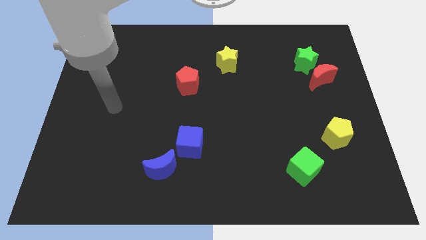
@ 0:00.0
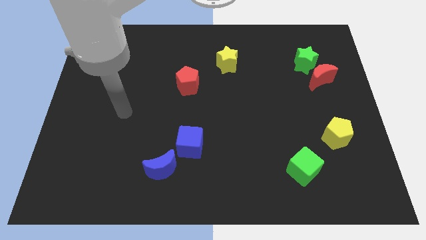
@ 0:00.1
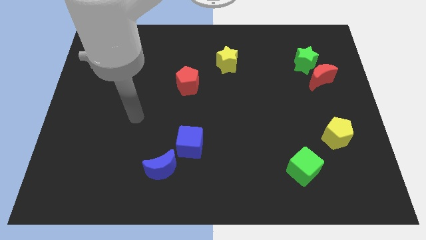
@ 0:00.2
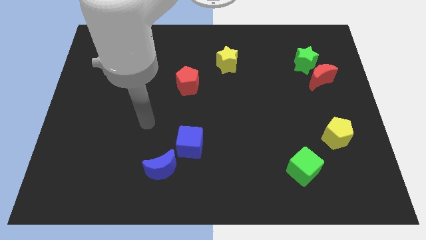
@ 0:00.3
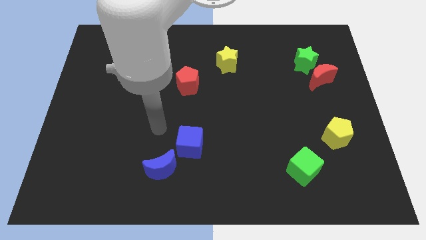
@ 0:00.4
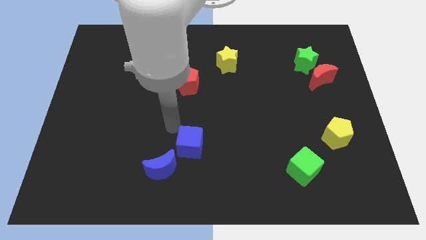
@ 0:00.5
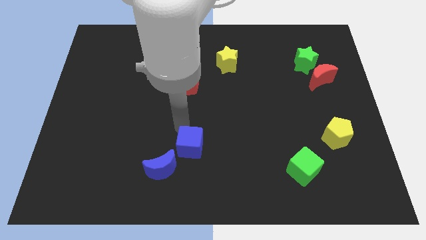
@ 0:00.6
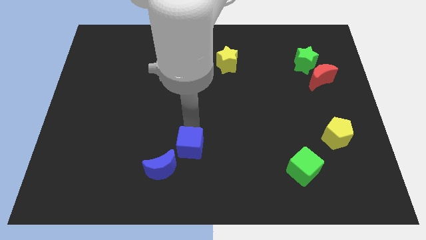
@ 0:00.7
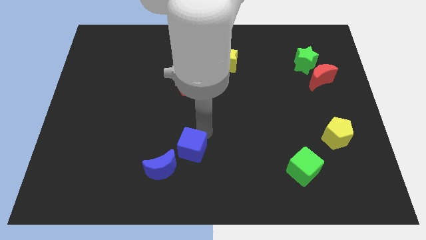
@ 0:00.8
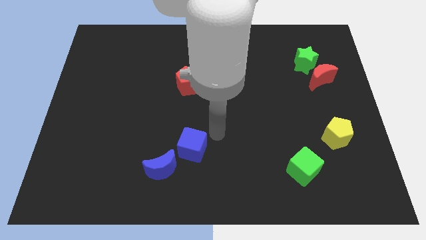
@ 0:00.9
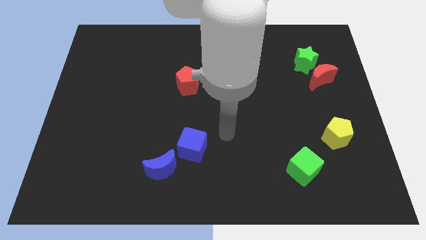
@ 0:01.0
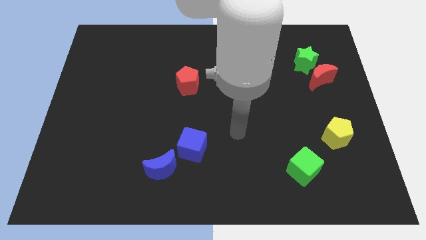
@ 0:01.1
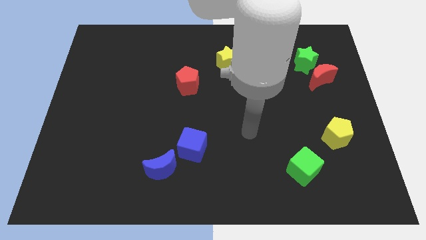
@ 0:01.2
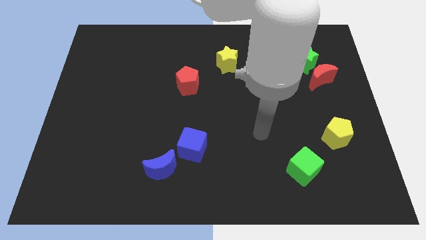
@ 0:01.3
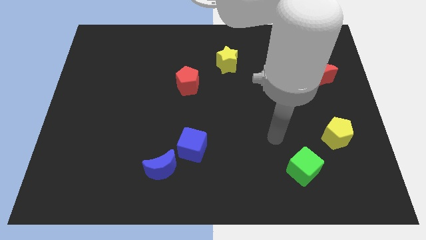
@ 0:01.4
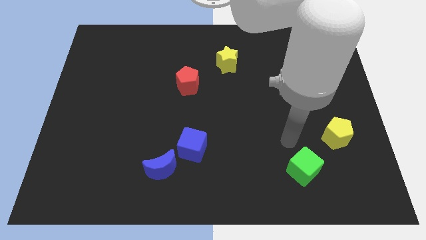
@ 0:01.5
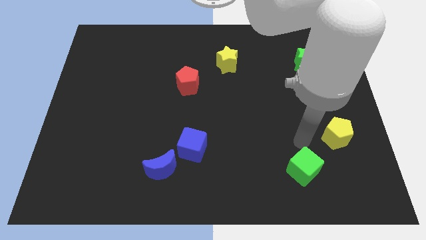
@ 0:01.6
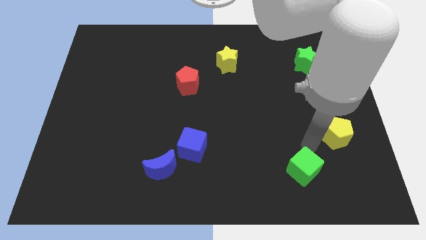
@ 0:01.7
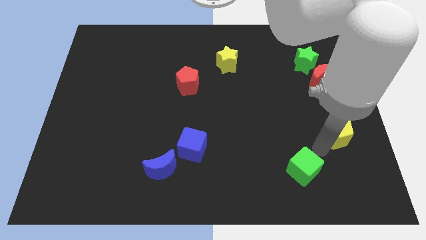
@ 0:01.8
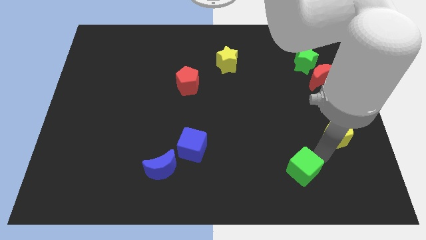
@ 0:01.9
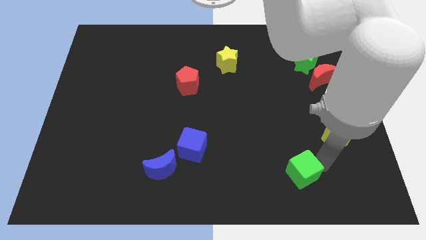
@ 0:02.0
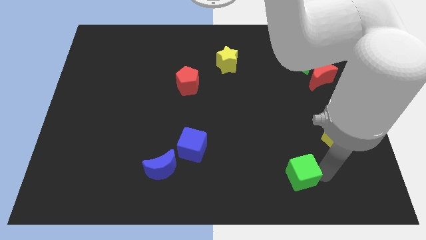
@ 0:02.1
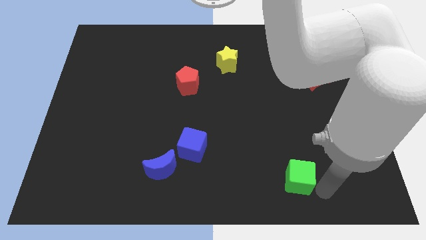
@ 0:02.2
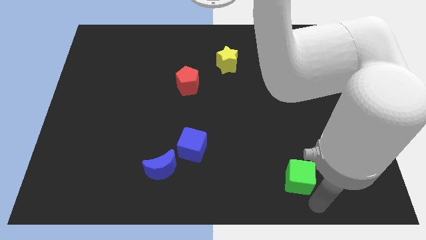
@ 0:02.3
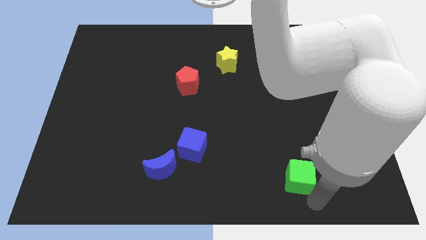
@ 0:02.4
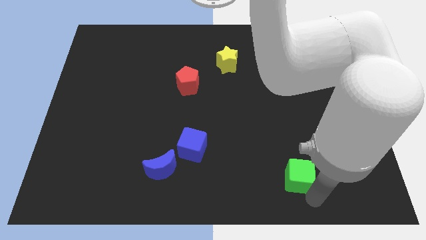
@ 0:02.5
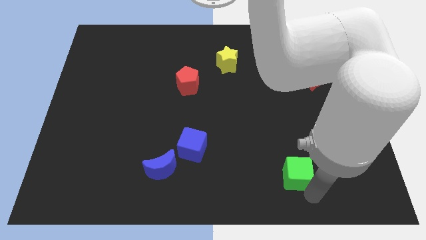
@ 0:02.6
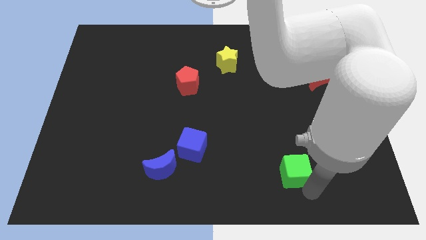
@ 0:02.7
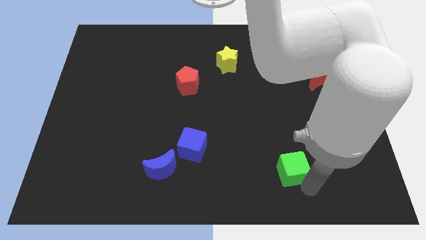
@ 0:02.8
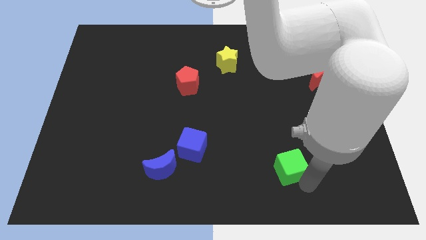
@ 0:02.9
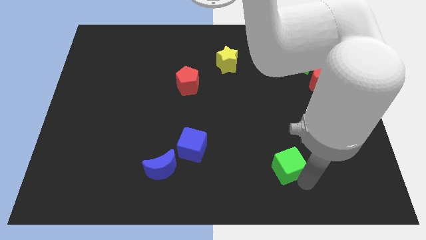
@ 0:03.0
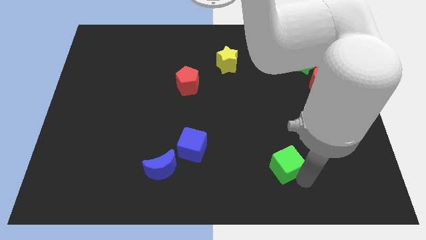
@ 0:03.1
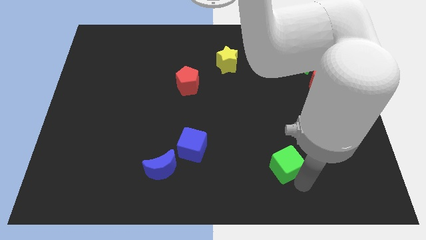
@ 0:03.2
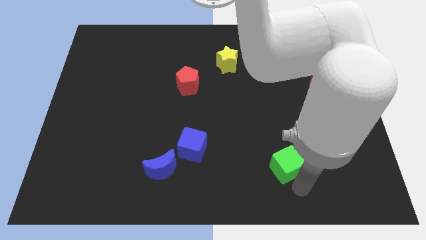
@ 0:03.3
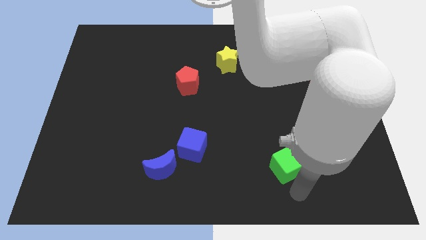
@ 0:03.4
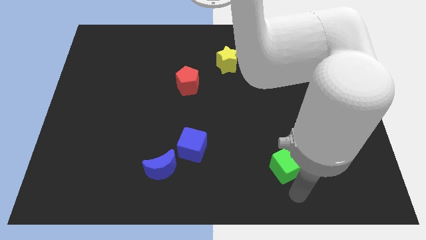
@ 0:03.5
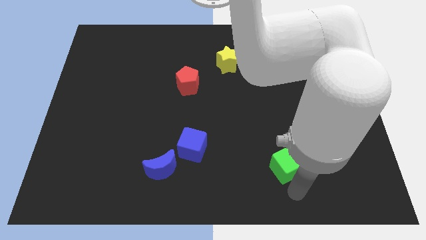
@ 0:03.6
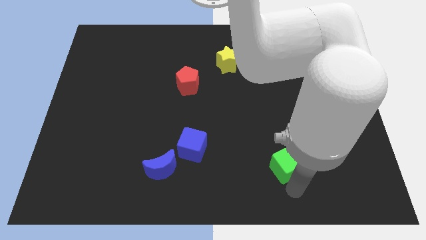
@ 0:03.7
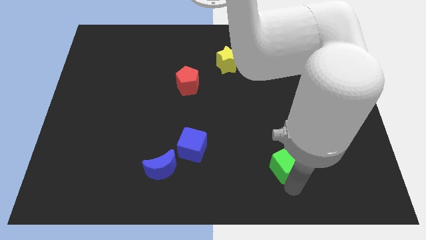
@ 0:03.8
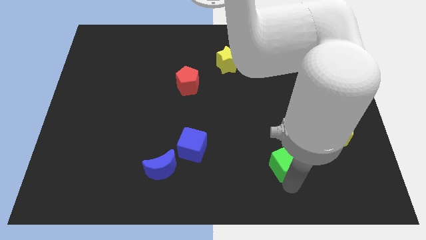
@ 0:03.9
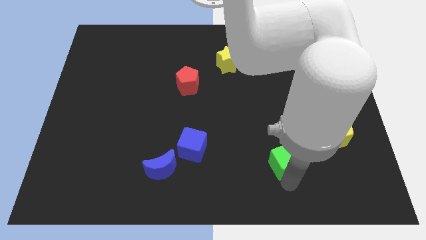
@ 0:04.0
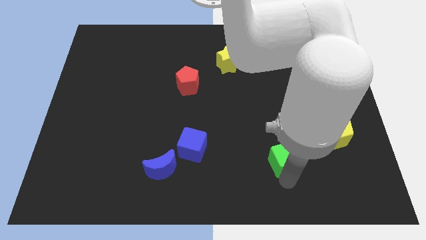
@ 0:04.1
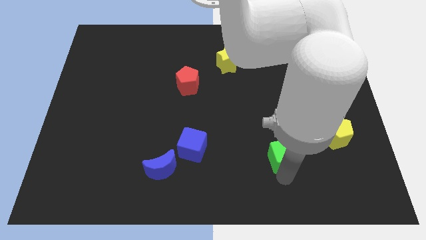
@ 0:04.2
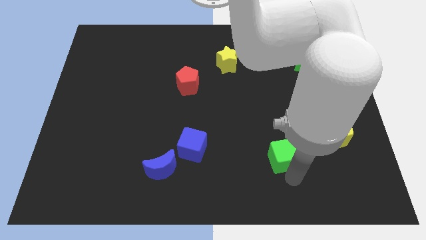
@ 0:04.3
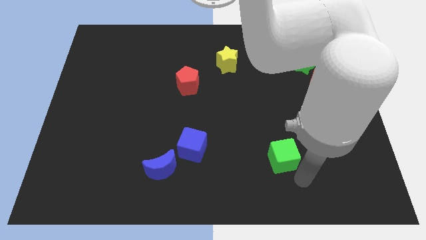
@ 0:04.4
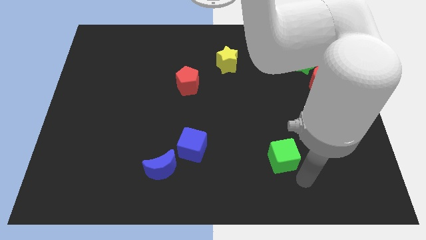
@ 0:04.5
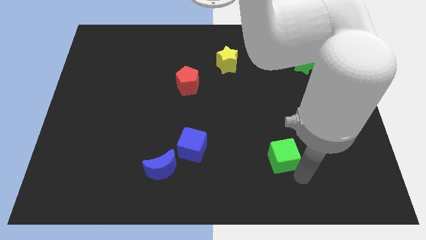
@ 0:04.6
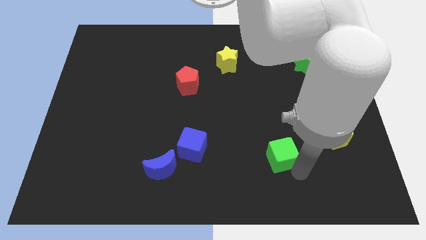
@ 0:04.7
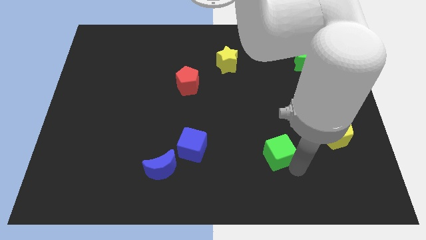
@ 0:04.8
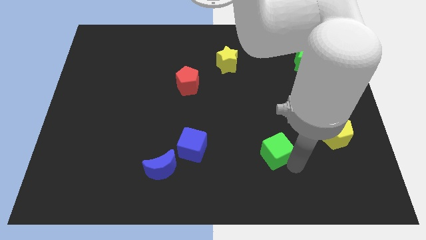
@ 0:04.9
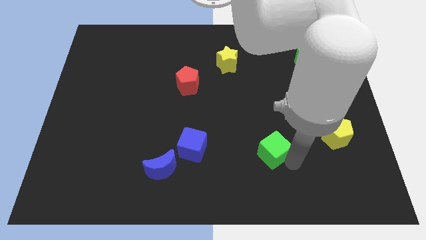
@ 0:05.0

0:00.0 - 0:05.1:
slightly slide the green cube upwards and then left

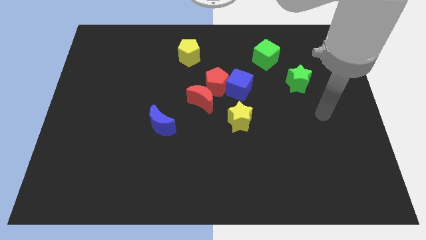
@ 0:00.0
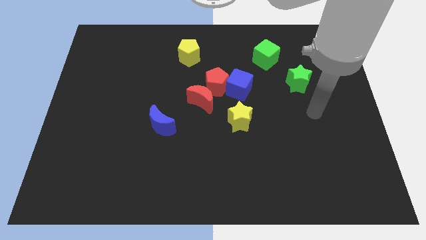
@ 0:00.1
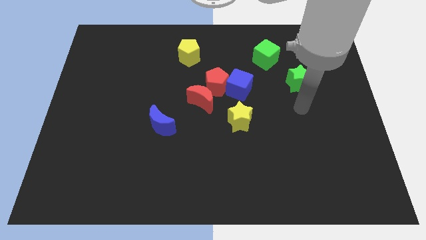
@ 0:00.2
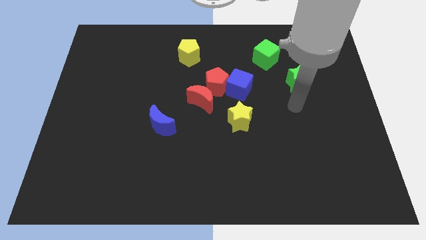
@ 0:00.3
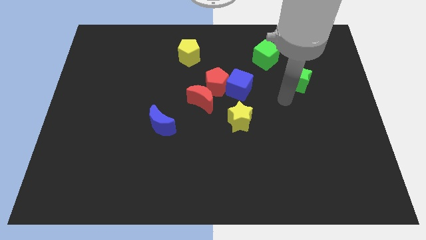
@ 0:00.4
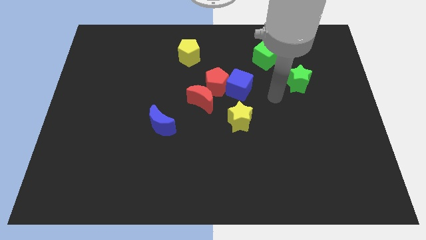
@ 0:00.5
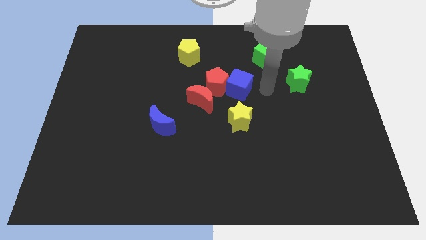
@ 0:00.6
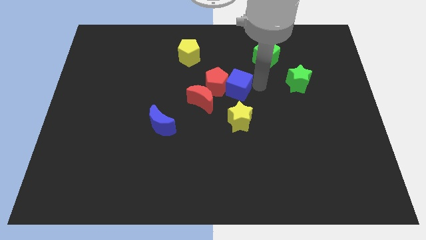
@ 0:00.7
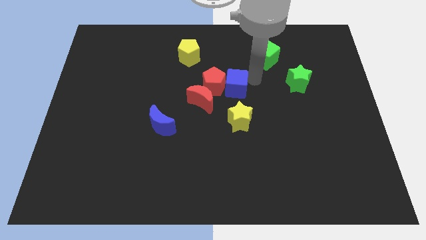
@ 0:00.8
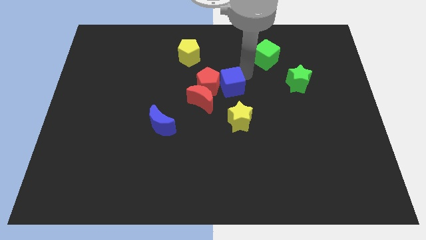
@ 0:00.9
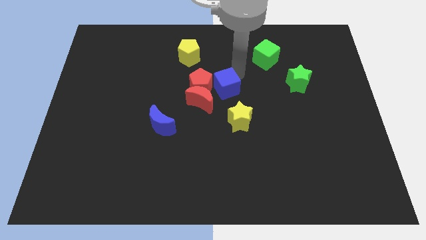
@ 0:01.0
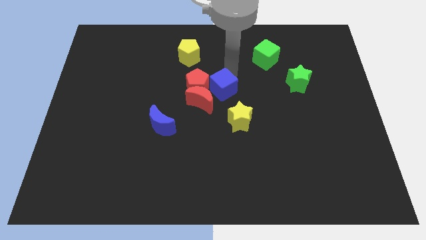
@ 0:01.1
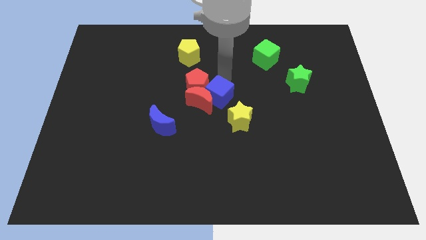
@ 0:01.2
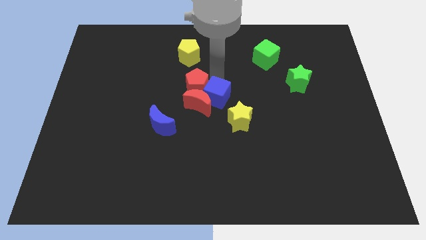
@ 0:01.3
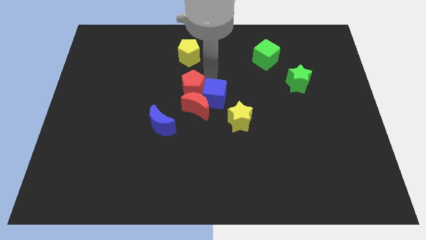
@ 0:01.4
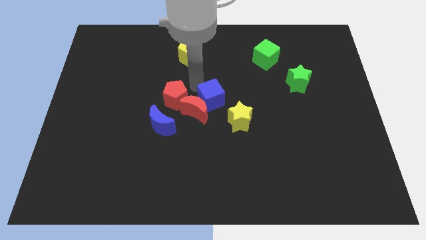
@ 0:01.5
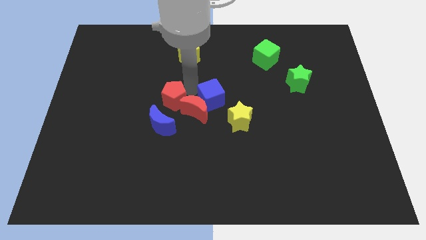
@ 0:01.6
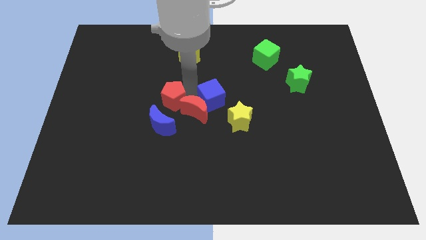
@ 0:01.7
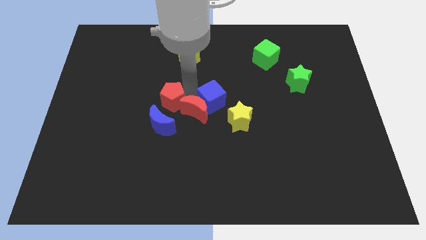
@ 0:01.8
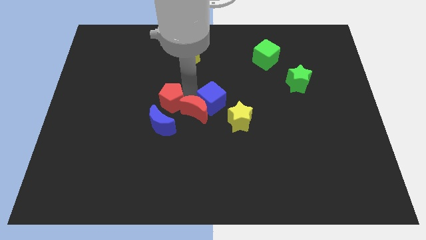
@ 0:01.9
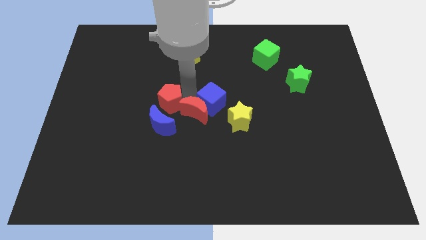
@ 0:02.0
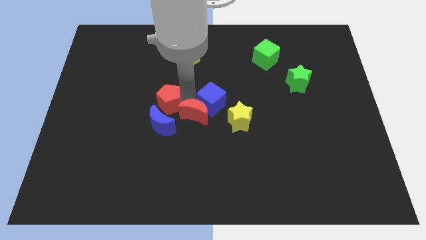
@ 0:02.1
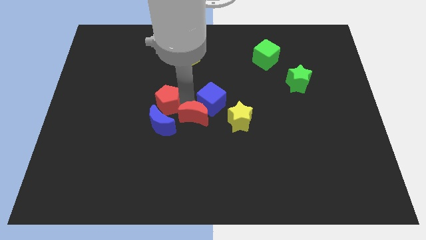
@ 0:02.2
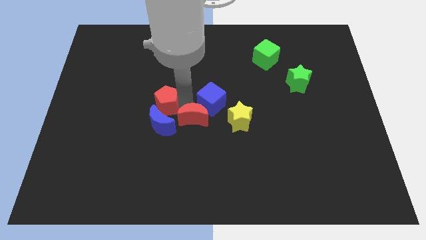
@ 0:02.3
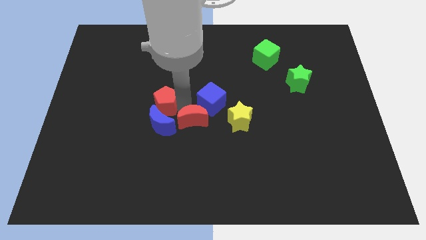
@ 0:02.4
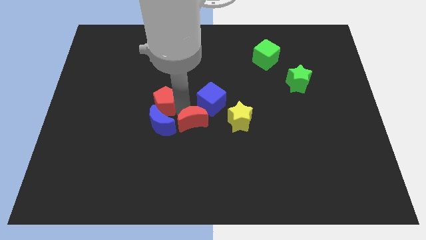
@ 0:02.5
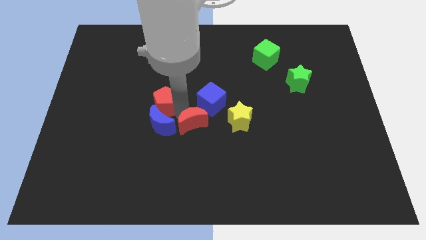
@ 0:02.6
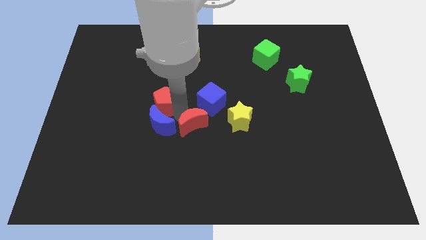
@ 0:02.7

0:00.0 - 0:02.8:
push the red moon downwards somewhat

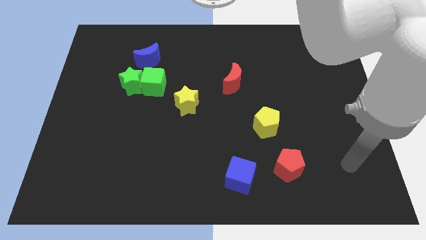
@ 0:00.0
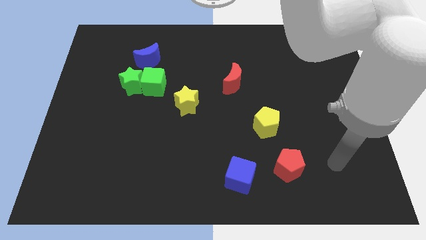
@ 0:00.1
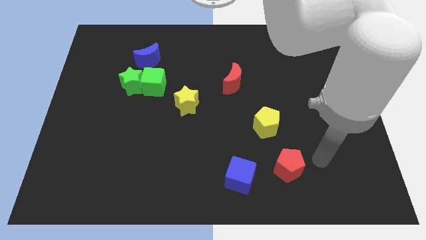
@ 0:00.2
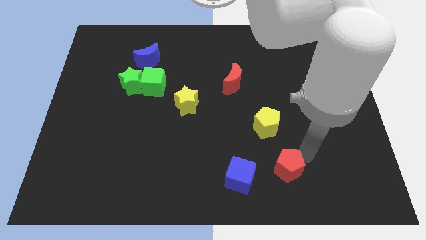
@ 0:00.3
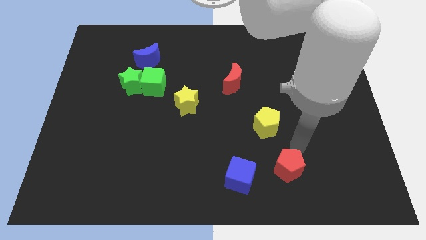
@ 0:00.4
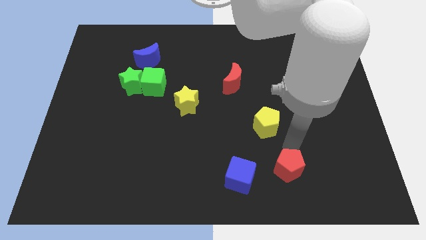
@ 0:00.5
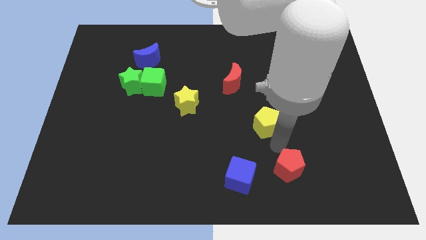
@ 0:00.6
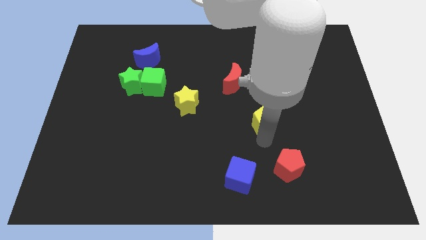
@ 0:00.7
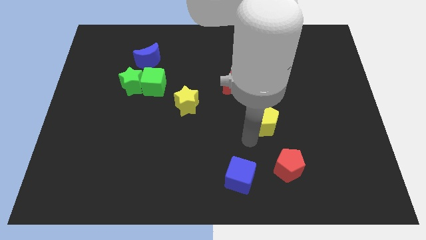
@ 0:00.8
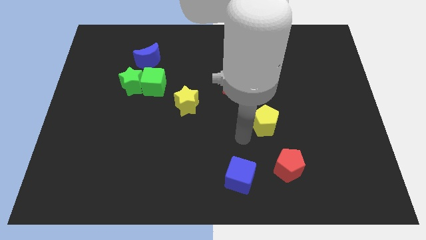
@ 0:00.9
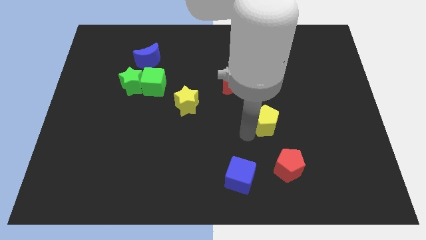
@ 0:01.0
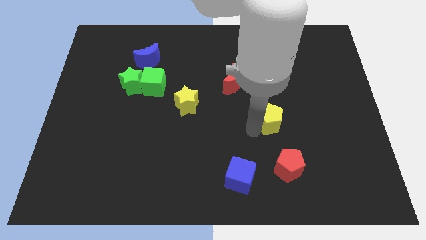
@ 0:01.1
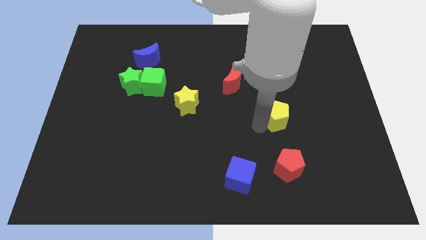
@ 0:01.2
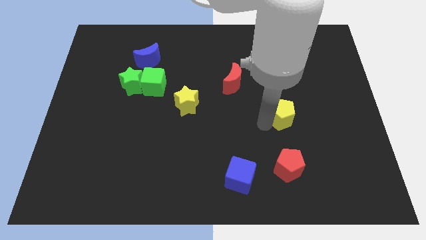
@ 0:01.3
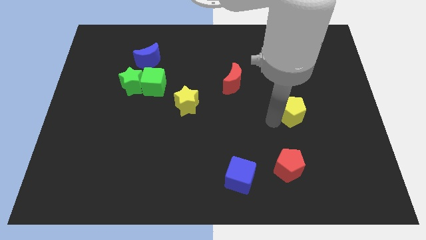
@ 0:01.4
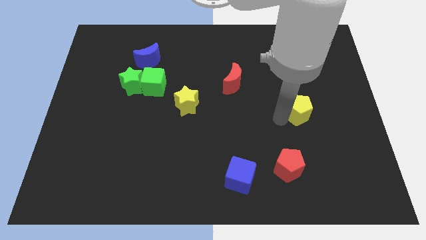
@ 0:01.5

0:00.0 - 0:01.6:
move the yellow pentagon upwards and right diagonally somewhat
